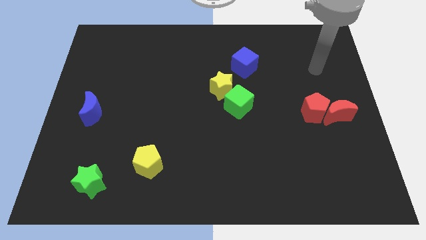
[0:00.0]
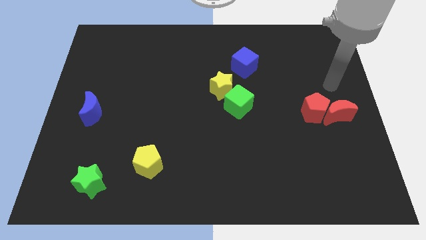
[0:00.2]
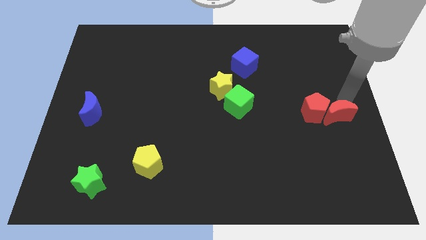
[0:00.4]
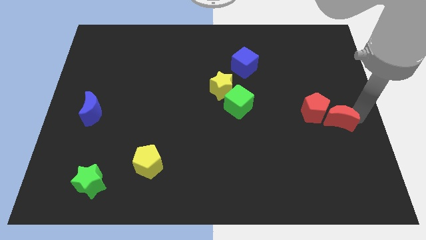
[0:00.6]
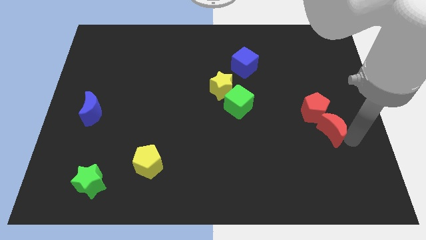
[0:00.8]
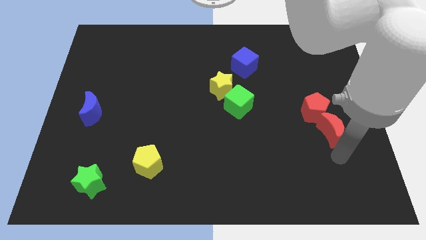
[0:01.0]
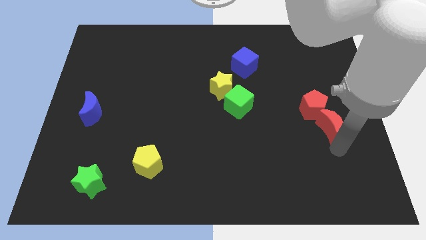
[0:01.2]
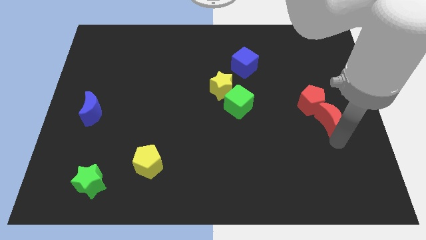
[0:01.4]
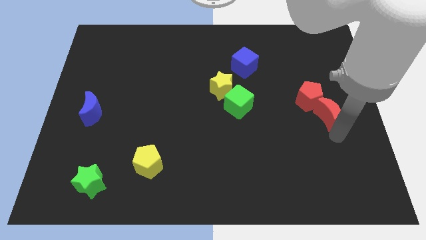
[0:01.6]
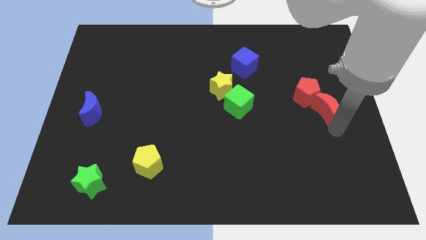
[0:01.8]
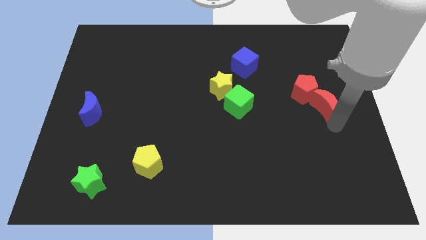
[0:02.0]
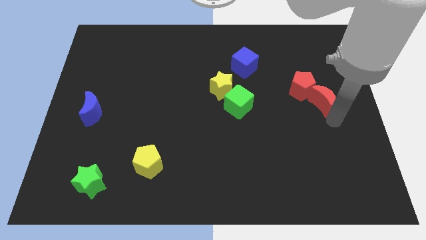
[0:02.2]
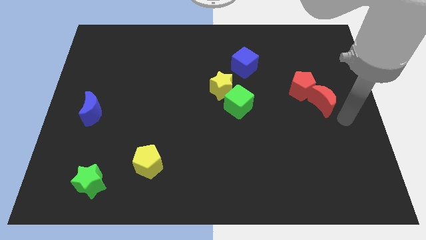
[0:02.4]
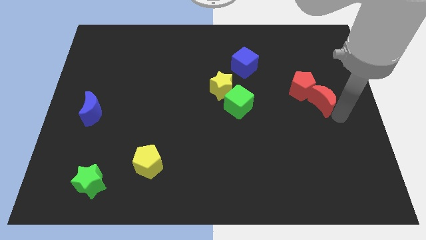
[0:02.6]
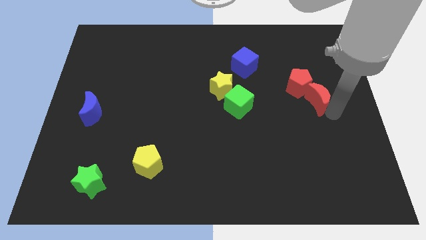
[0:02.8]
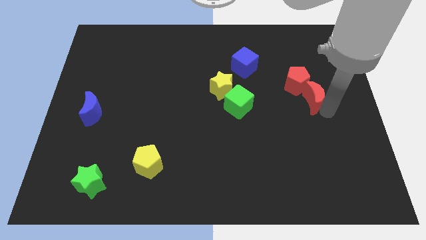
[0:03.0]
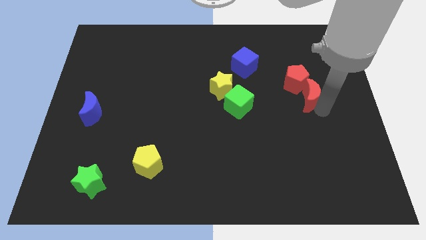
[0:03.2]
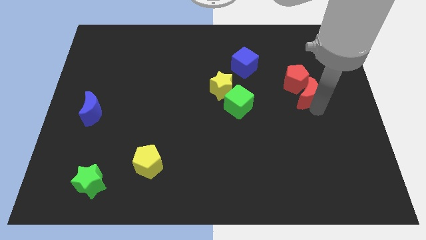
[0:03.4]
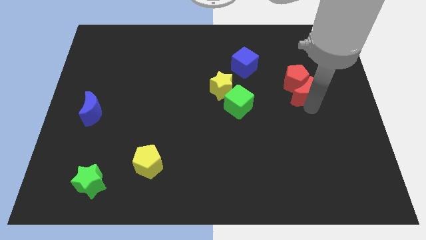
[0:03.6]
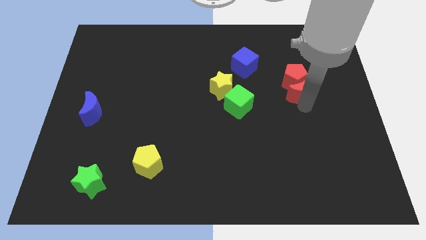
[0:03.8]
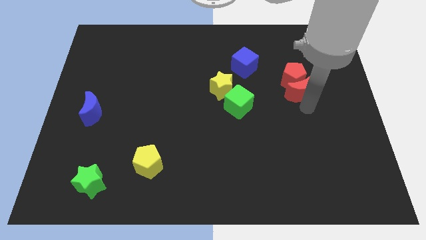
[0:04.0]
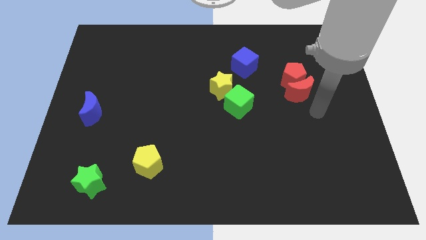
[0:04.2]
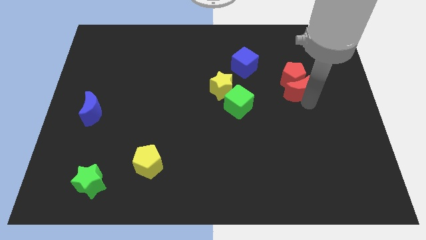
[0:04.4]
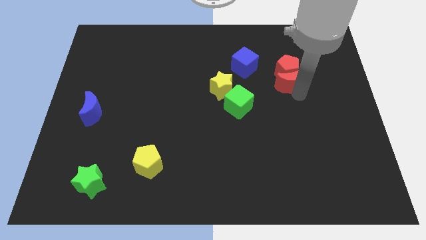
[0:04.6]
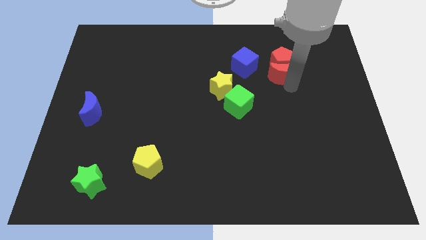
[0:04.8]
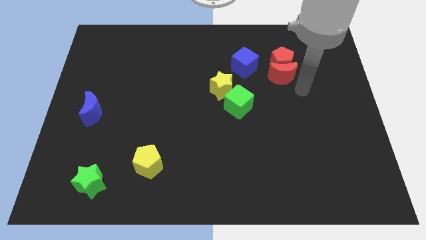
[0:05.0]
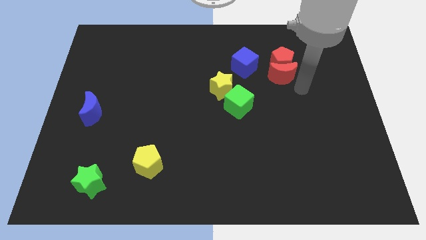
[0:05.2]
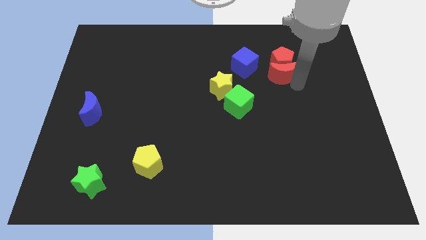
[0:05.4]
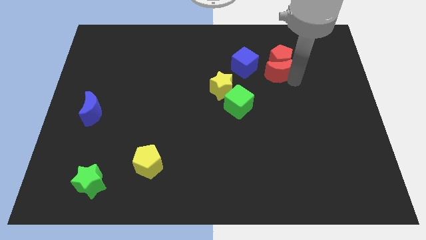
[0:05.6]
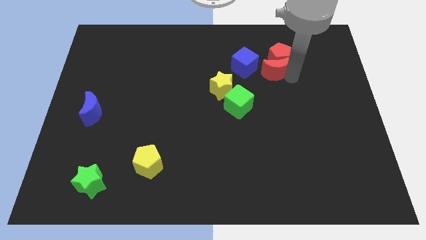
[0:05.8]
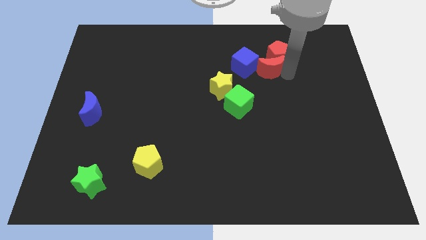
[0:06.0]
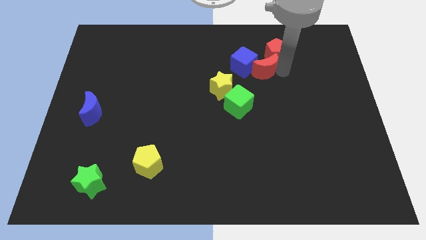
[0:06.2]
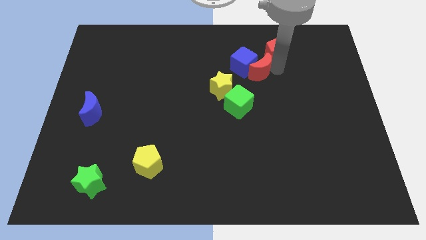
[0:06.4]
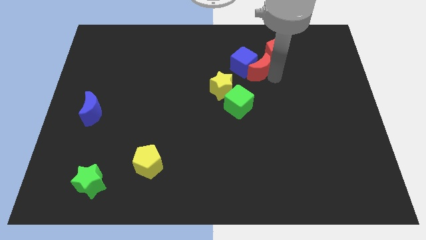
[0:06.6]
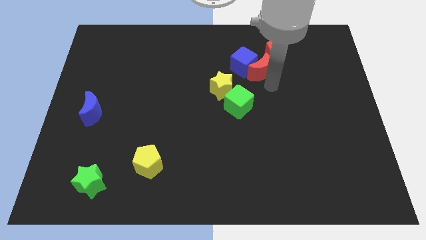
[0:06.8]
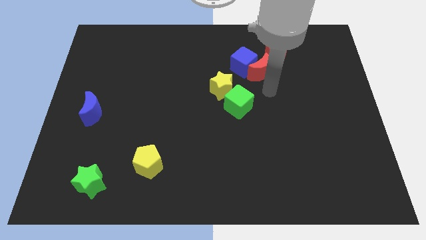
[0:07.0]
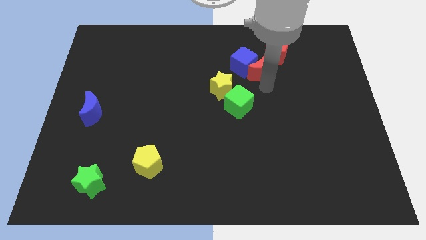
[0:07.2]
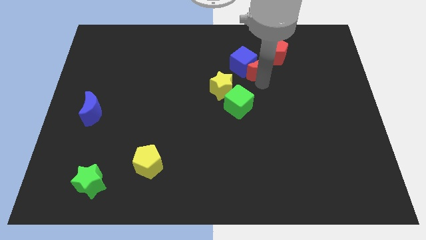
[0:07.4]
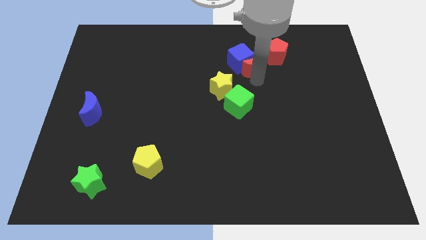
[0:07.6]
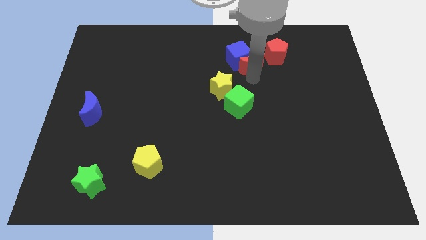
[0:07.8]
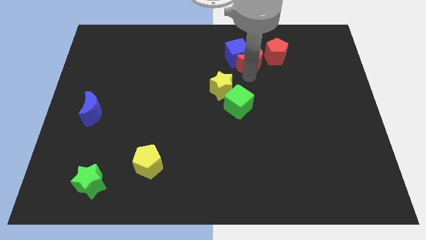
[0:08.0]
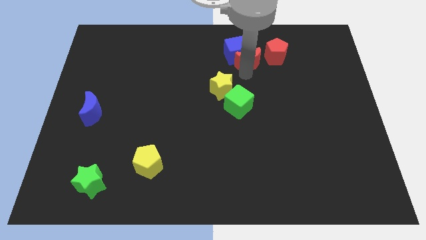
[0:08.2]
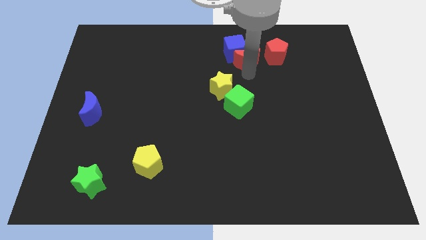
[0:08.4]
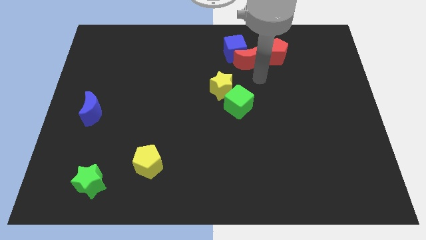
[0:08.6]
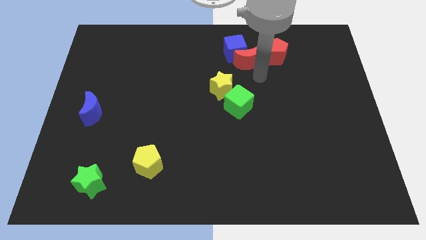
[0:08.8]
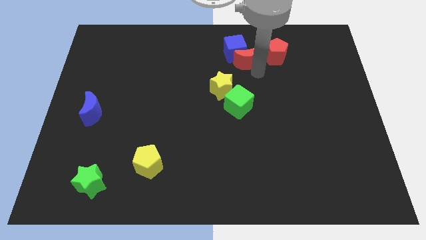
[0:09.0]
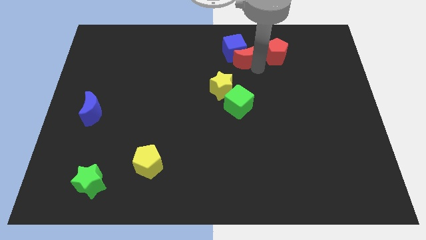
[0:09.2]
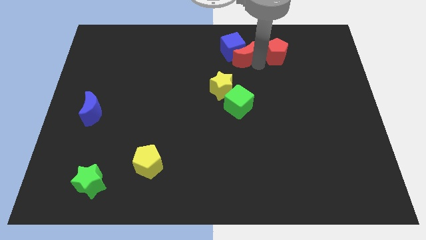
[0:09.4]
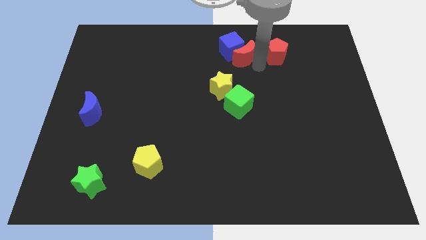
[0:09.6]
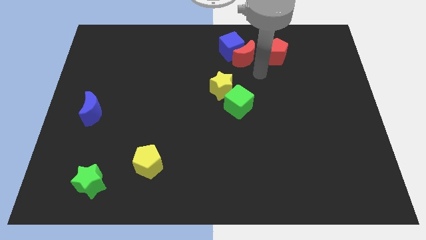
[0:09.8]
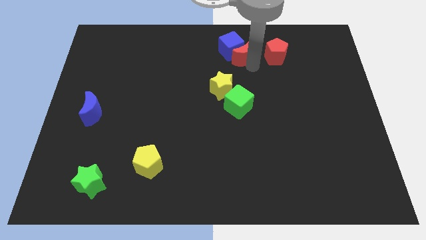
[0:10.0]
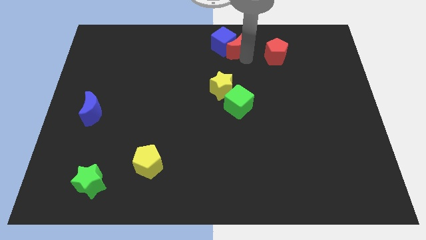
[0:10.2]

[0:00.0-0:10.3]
move the red moon to the towards your base

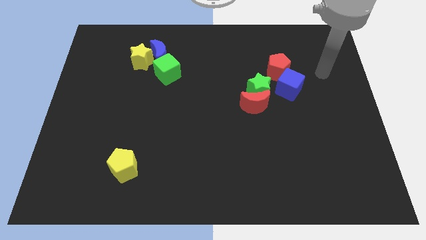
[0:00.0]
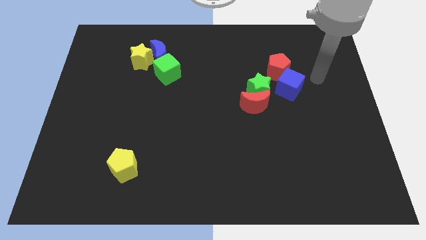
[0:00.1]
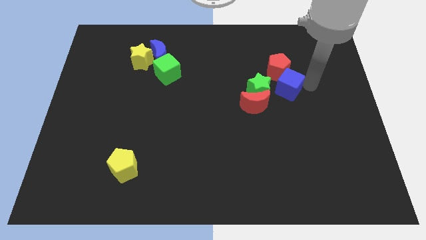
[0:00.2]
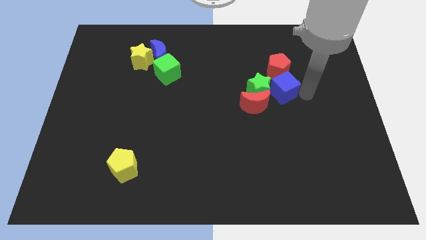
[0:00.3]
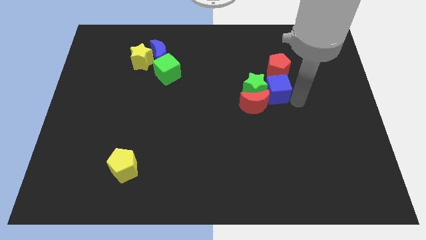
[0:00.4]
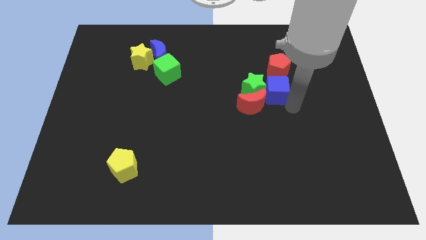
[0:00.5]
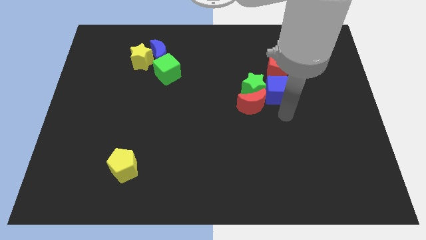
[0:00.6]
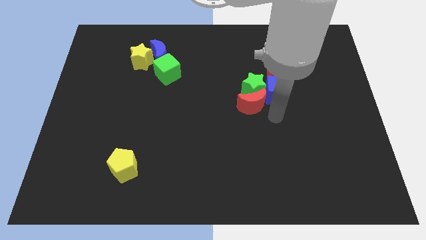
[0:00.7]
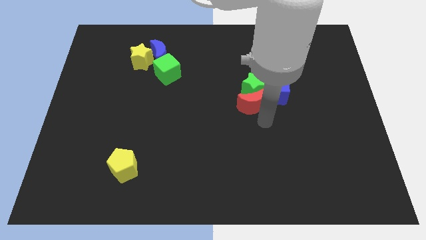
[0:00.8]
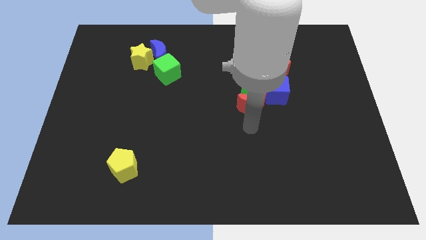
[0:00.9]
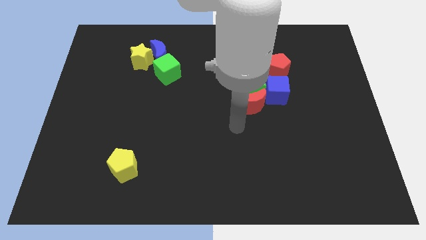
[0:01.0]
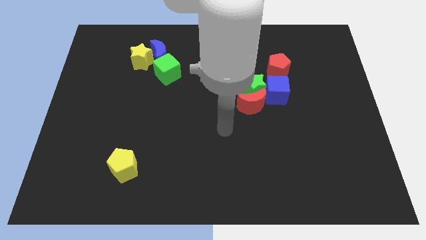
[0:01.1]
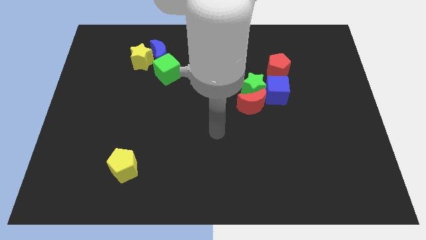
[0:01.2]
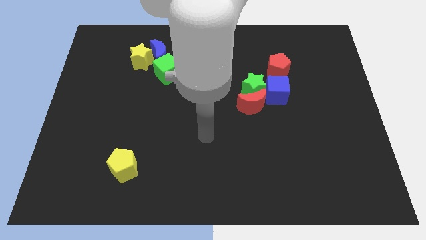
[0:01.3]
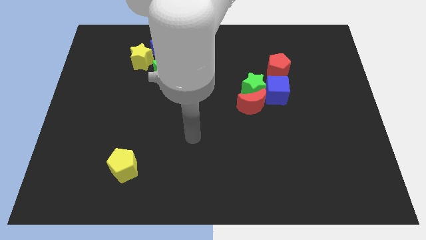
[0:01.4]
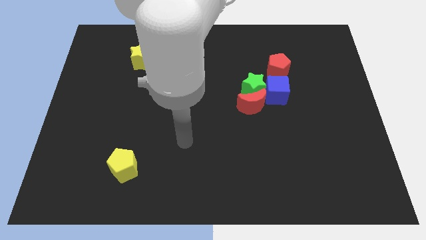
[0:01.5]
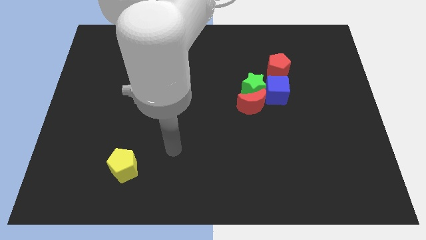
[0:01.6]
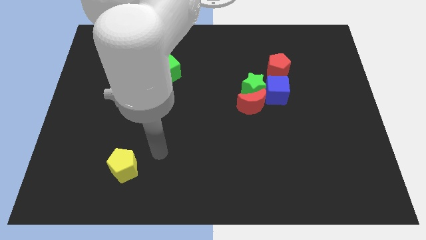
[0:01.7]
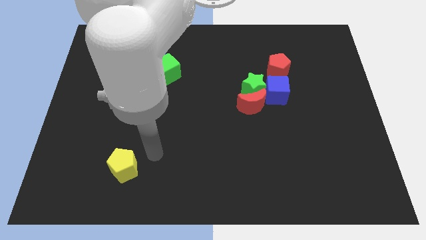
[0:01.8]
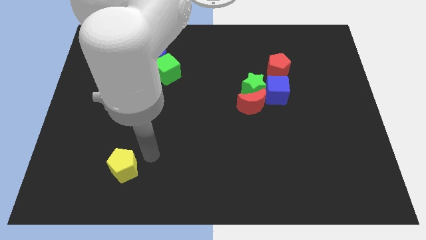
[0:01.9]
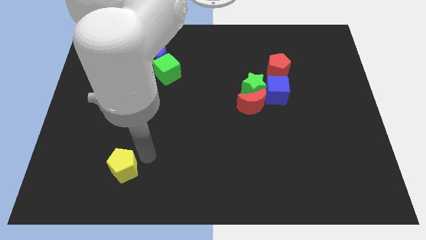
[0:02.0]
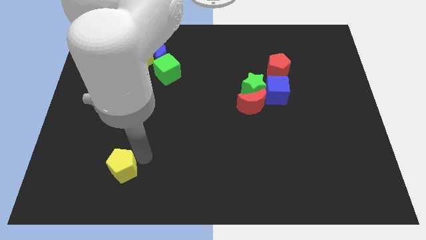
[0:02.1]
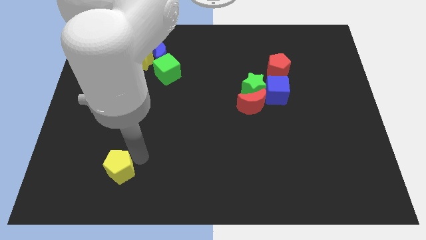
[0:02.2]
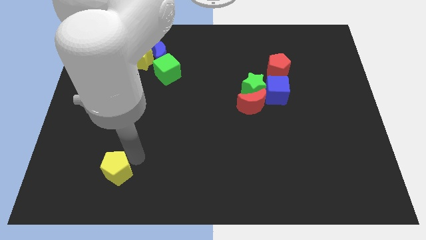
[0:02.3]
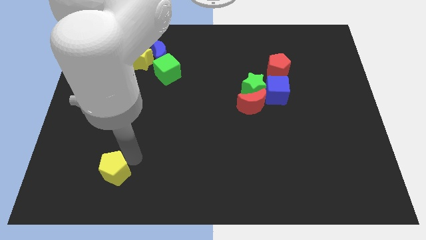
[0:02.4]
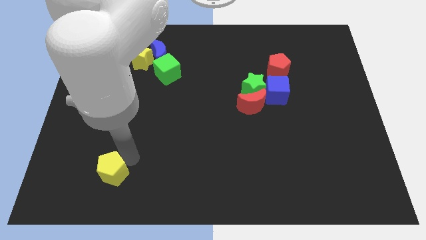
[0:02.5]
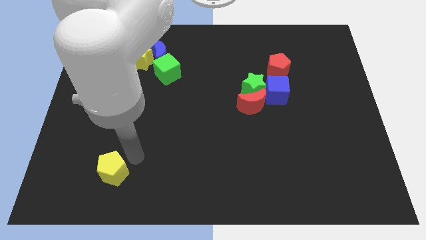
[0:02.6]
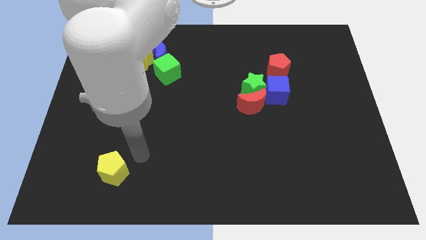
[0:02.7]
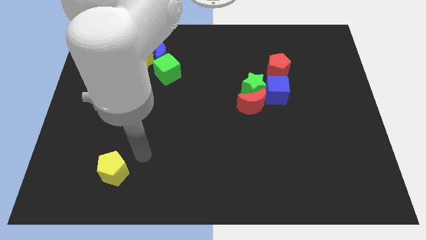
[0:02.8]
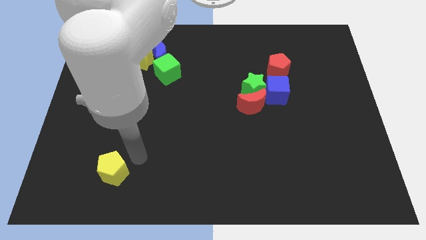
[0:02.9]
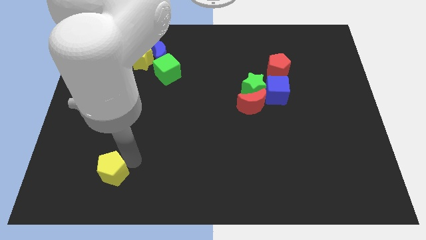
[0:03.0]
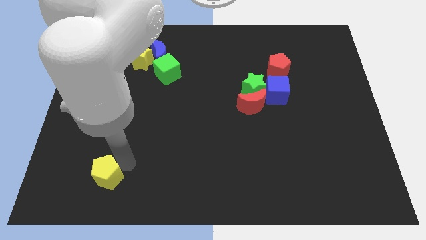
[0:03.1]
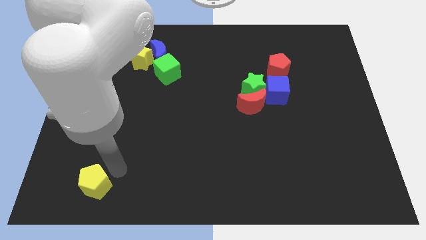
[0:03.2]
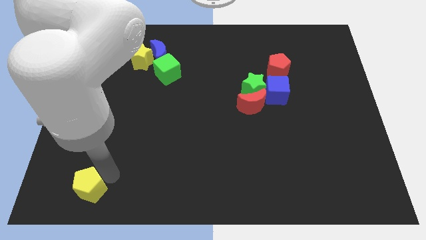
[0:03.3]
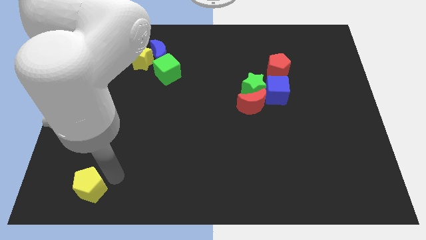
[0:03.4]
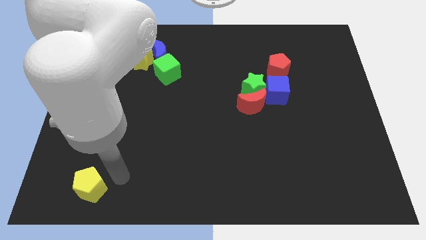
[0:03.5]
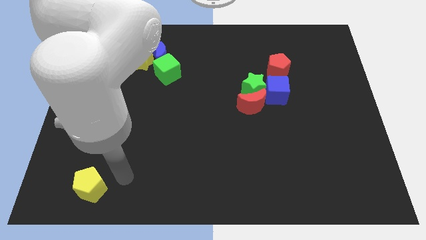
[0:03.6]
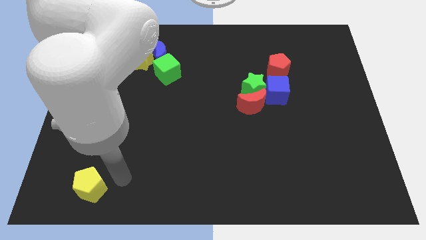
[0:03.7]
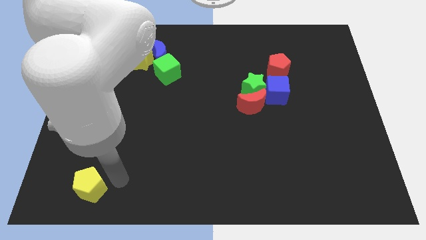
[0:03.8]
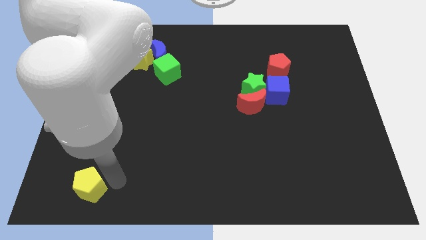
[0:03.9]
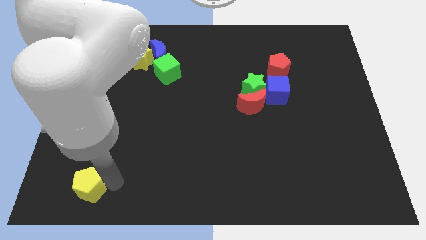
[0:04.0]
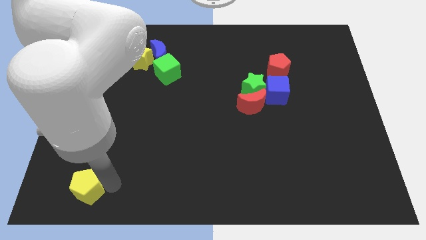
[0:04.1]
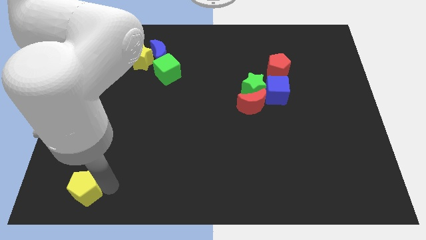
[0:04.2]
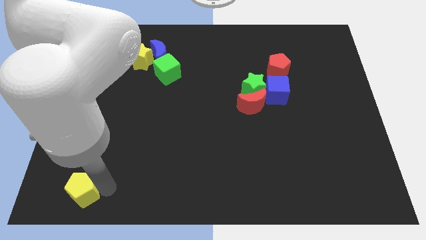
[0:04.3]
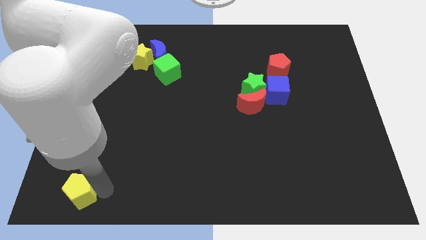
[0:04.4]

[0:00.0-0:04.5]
push the yellow pentagon to the bottom left of the board
